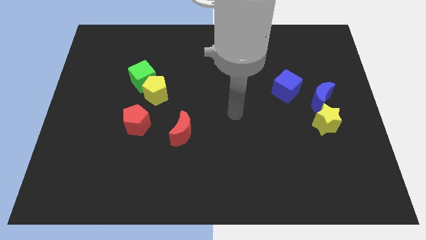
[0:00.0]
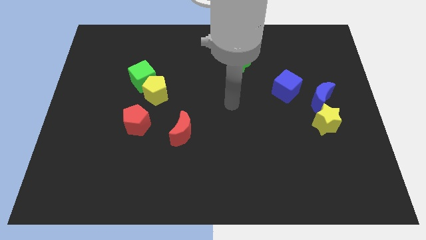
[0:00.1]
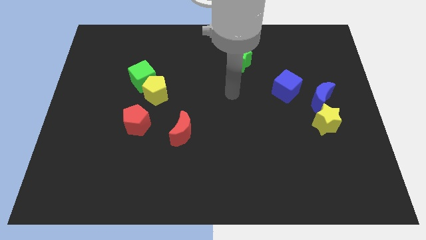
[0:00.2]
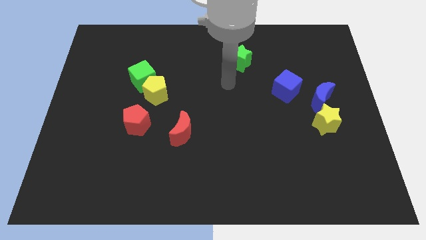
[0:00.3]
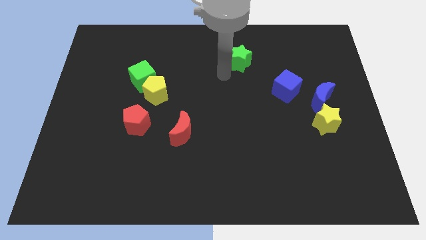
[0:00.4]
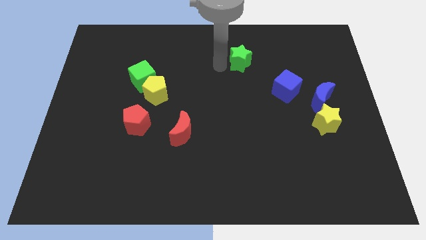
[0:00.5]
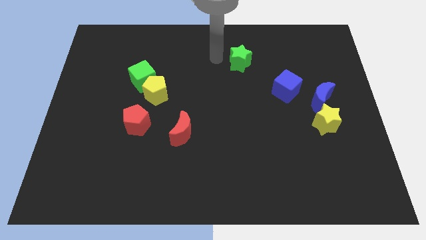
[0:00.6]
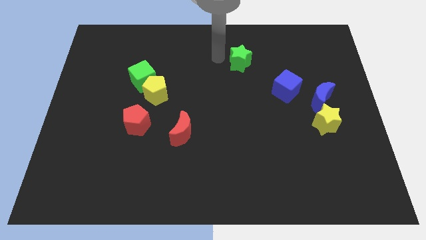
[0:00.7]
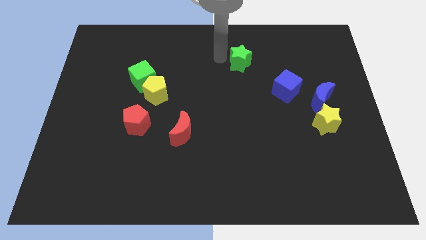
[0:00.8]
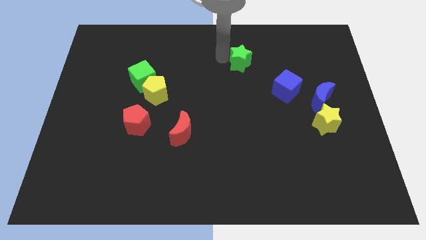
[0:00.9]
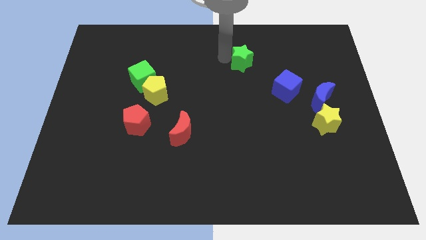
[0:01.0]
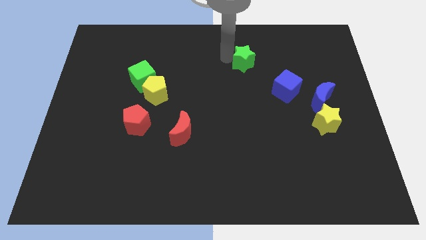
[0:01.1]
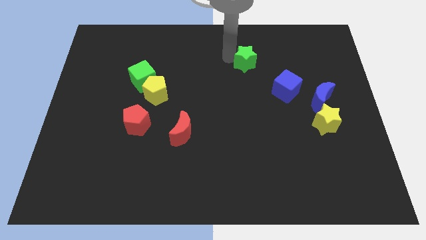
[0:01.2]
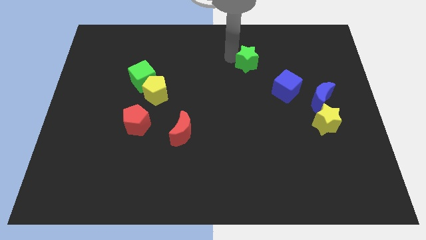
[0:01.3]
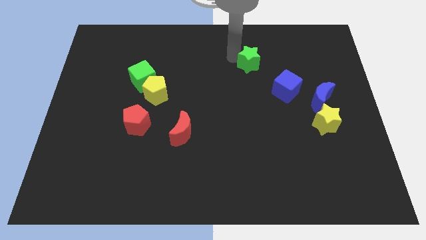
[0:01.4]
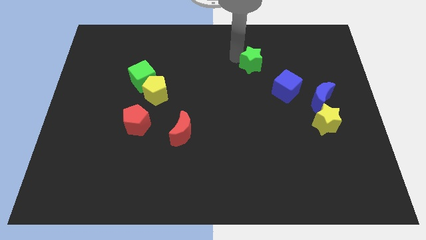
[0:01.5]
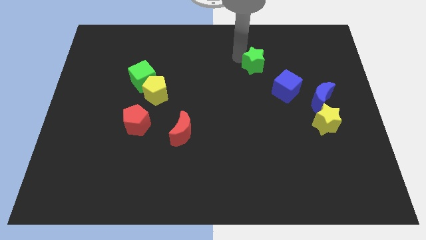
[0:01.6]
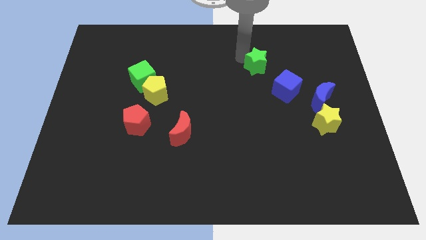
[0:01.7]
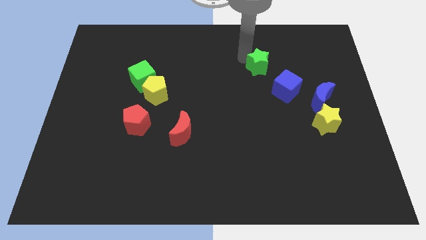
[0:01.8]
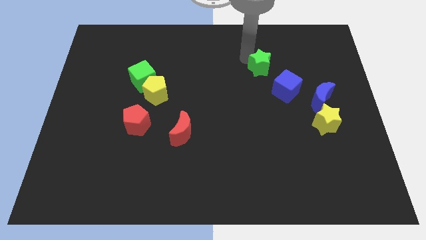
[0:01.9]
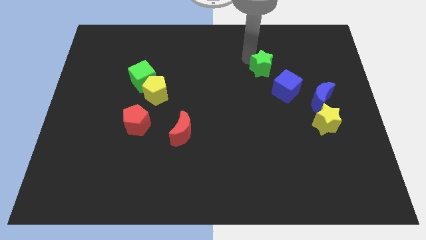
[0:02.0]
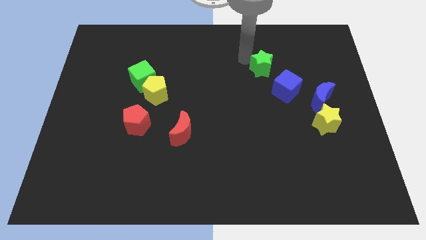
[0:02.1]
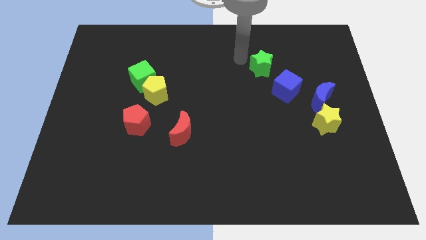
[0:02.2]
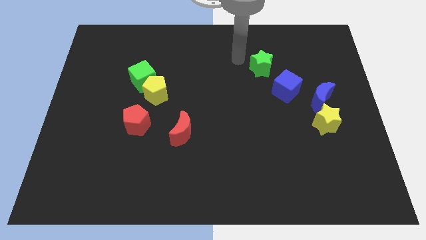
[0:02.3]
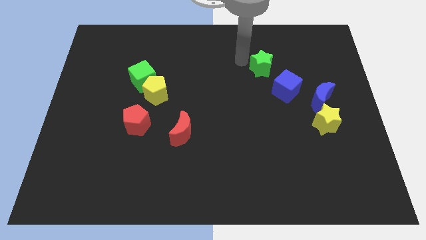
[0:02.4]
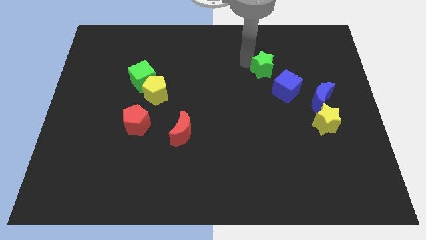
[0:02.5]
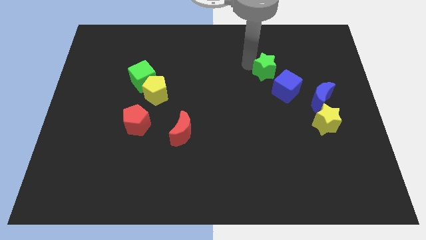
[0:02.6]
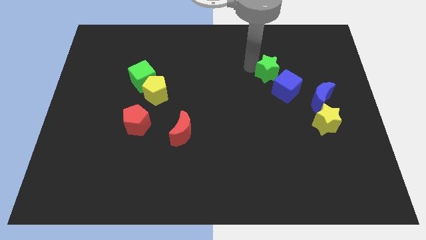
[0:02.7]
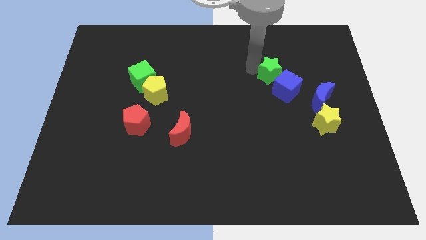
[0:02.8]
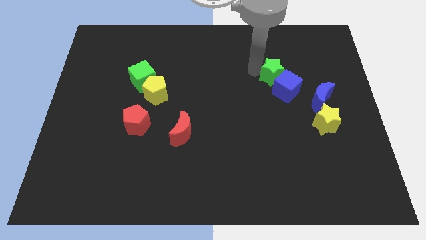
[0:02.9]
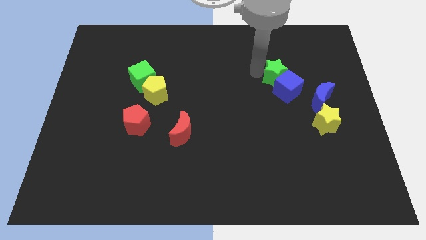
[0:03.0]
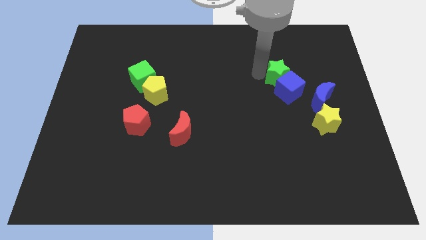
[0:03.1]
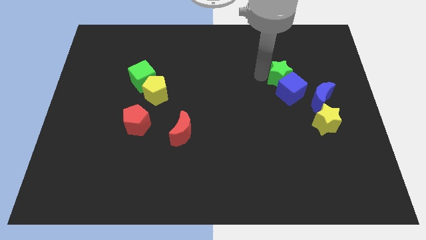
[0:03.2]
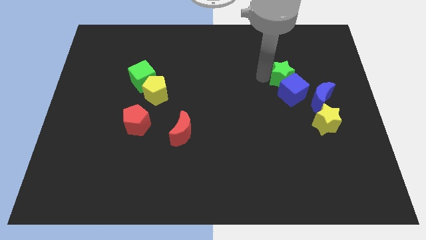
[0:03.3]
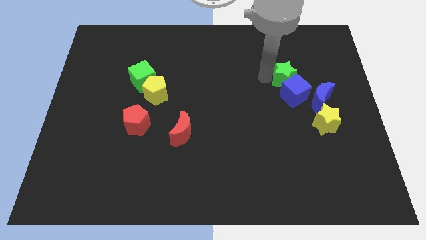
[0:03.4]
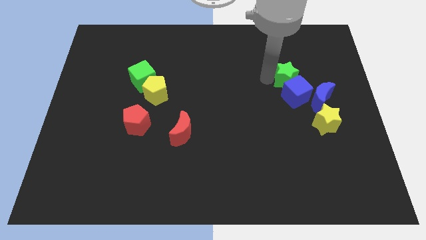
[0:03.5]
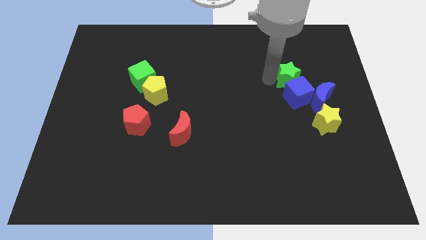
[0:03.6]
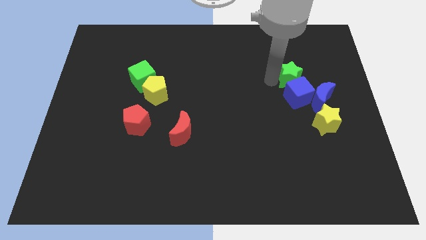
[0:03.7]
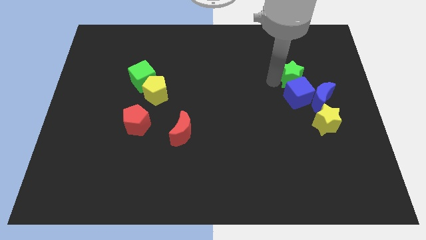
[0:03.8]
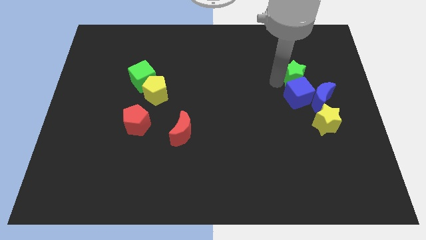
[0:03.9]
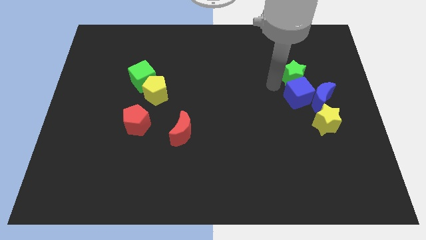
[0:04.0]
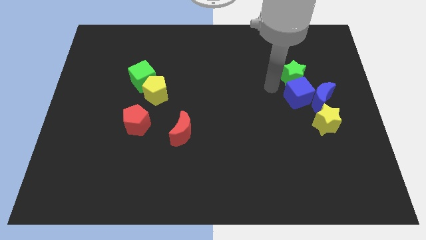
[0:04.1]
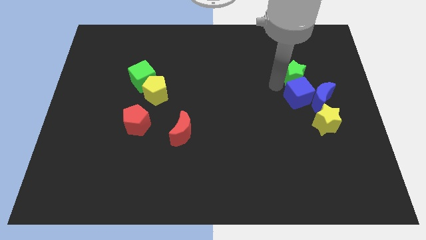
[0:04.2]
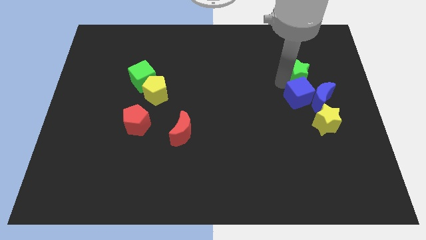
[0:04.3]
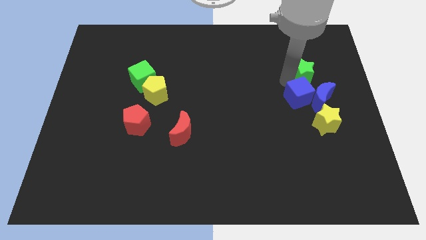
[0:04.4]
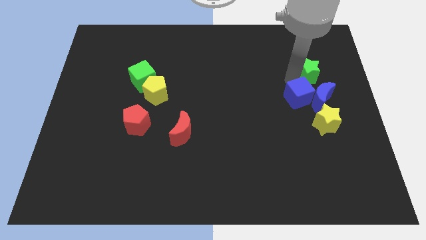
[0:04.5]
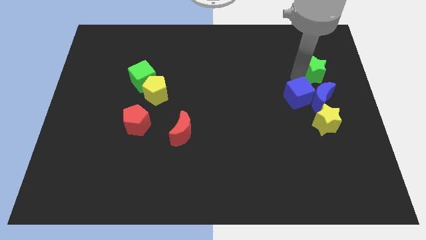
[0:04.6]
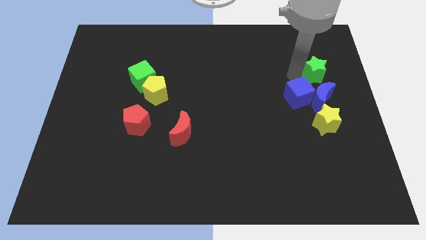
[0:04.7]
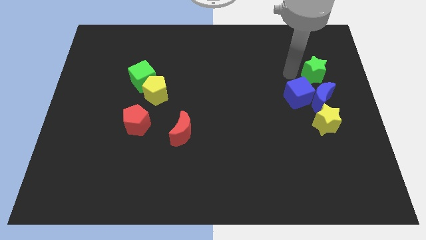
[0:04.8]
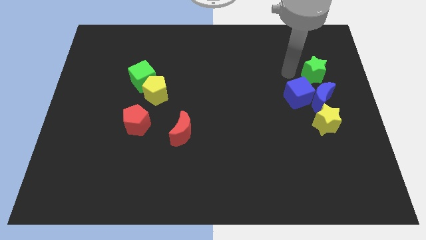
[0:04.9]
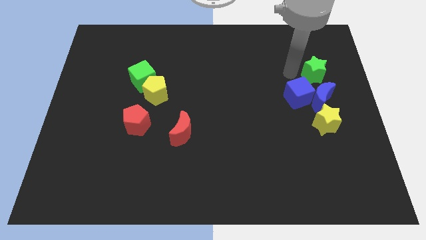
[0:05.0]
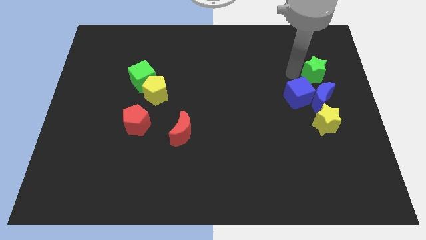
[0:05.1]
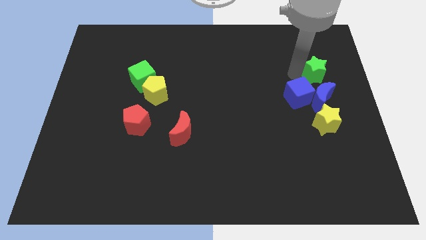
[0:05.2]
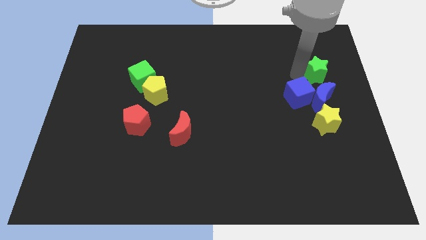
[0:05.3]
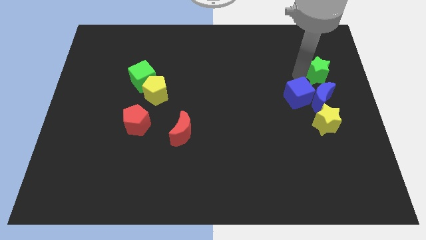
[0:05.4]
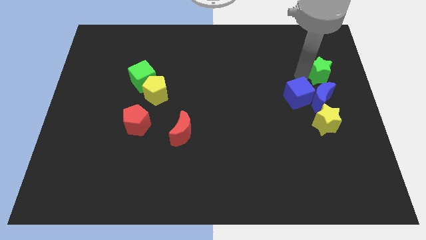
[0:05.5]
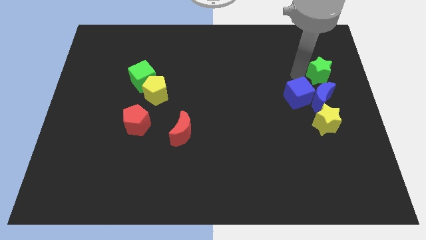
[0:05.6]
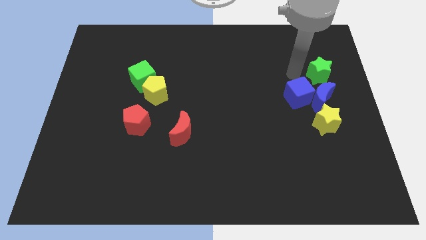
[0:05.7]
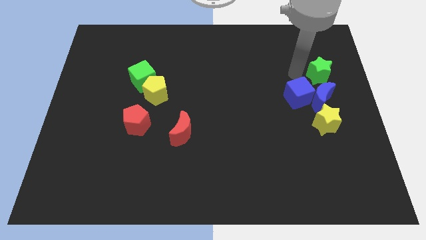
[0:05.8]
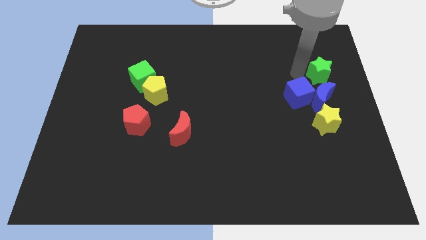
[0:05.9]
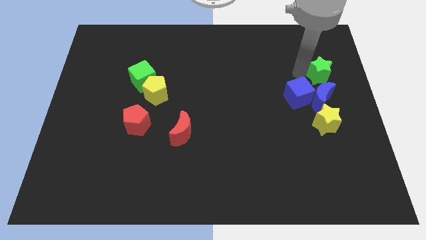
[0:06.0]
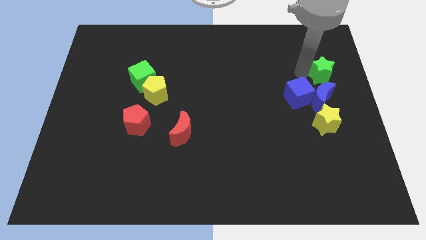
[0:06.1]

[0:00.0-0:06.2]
push the green star to the center right

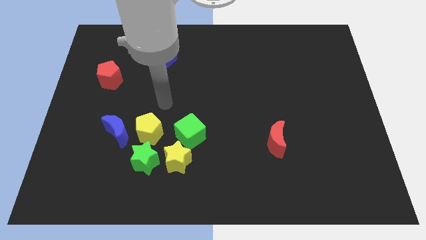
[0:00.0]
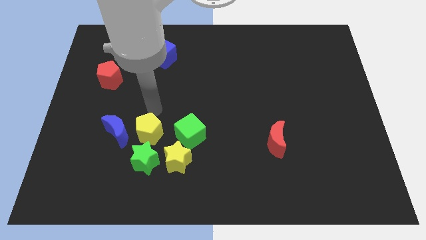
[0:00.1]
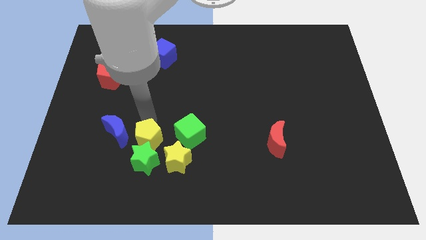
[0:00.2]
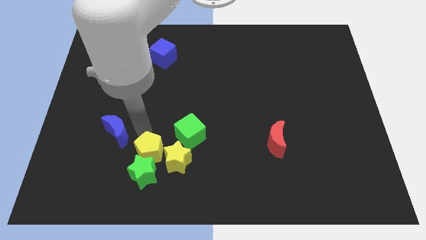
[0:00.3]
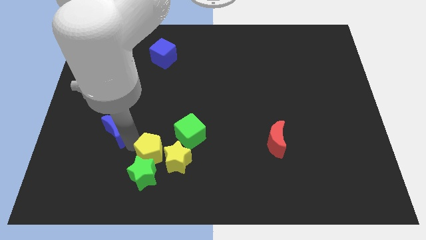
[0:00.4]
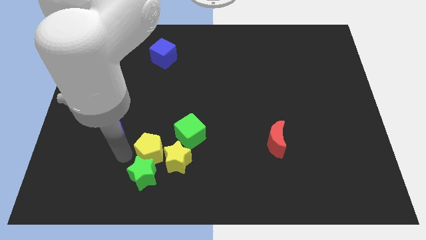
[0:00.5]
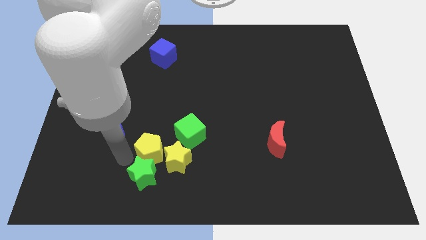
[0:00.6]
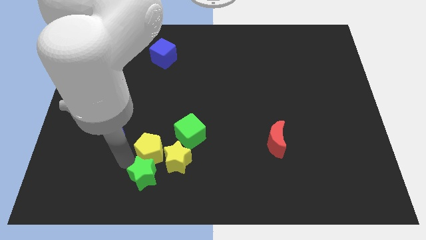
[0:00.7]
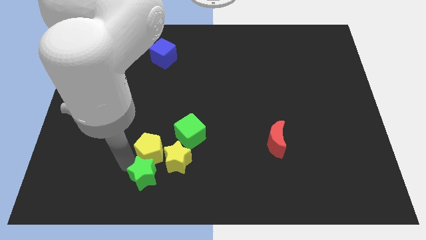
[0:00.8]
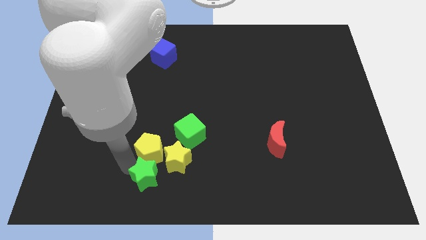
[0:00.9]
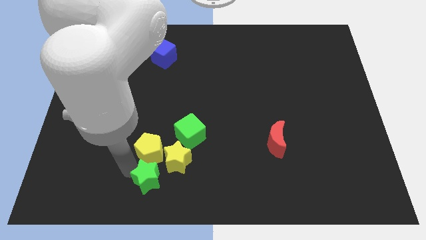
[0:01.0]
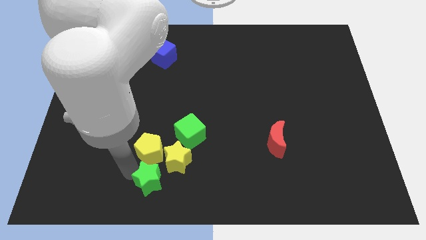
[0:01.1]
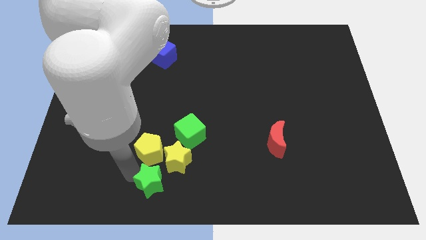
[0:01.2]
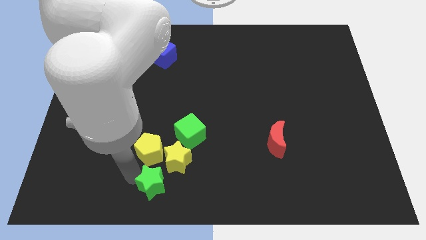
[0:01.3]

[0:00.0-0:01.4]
move the green star to the bottom side
